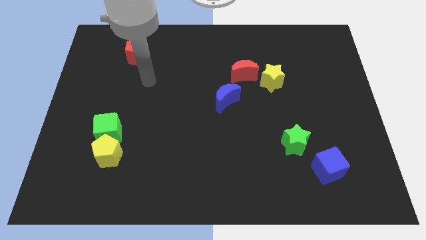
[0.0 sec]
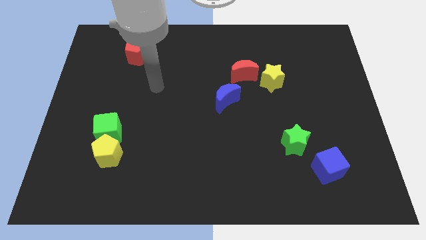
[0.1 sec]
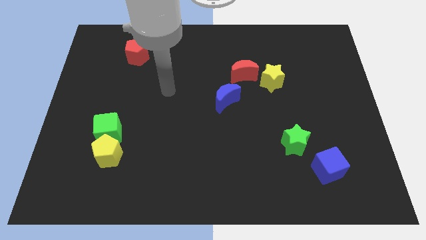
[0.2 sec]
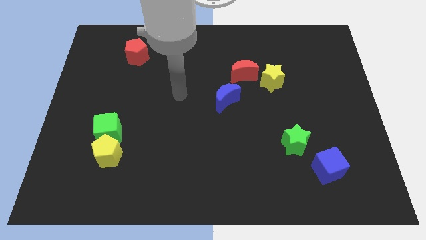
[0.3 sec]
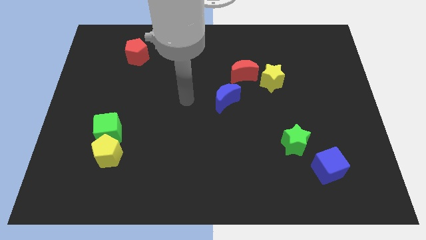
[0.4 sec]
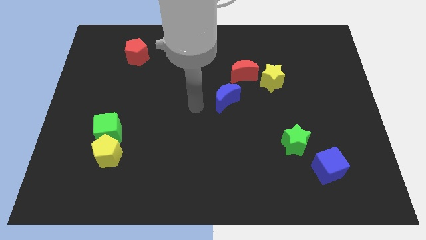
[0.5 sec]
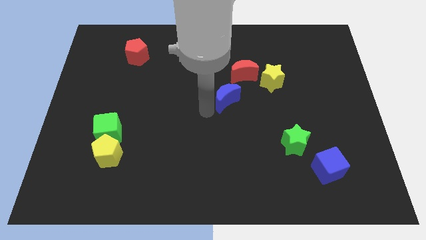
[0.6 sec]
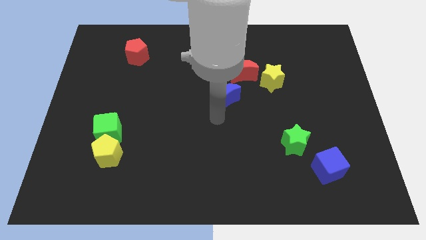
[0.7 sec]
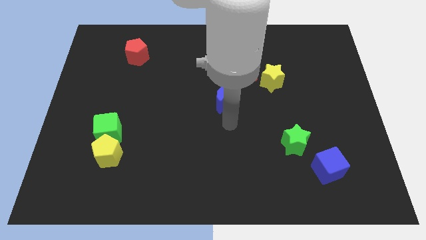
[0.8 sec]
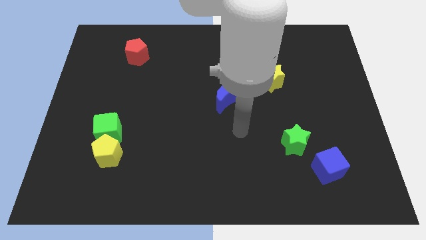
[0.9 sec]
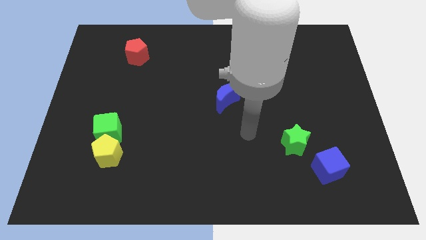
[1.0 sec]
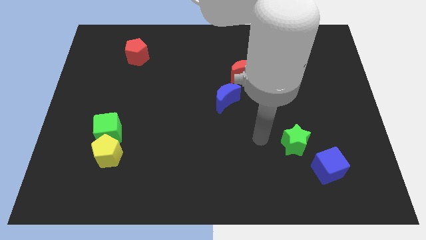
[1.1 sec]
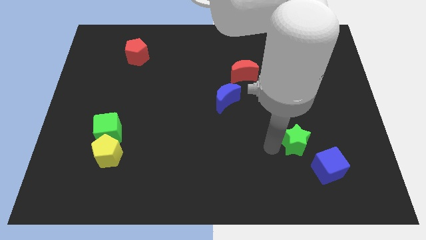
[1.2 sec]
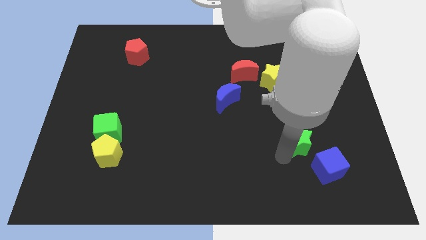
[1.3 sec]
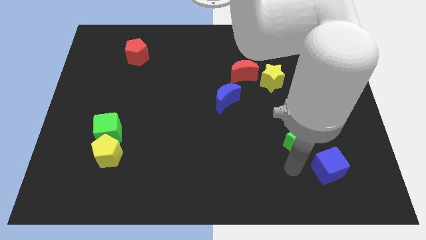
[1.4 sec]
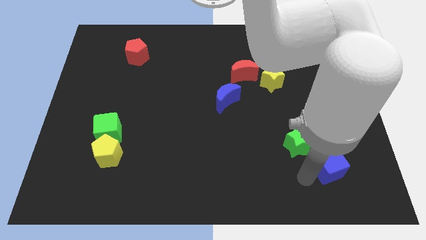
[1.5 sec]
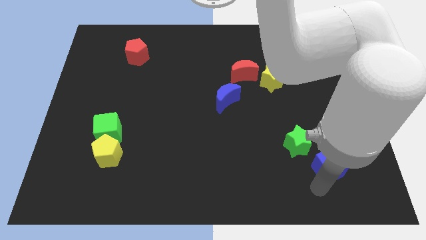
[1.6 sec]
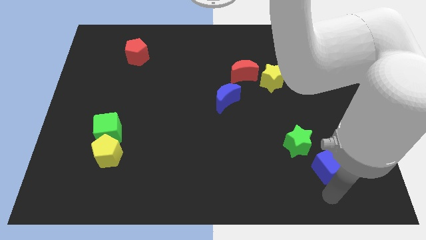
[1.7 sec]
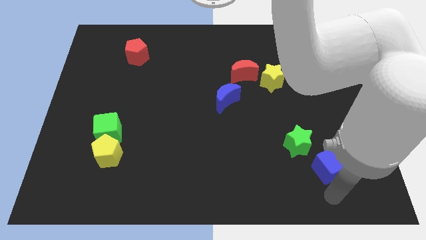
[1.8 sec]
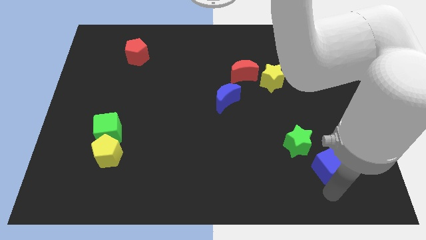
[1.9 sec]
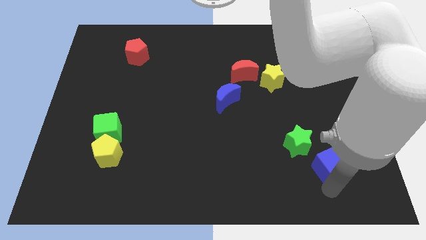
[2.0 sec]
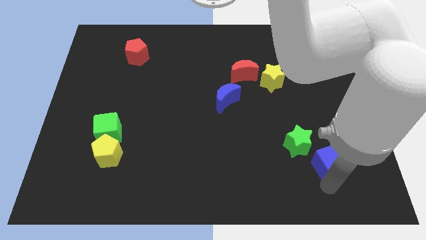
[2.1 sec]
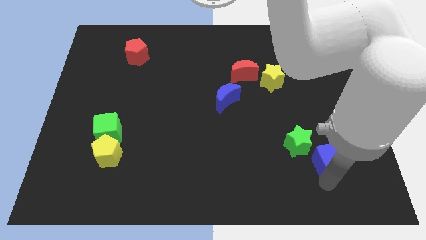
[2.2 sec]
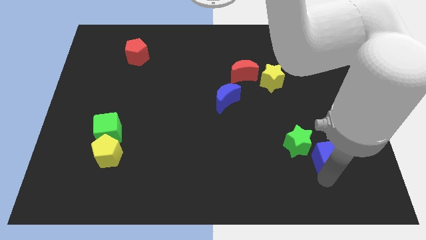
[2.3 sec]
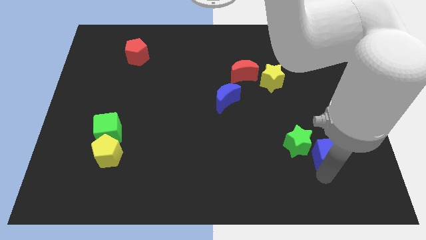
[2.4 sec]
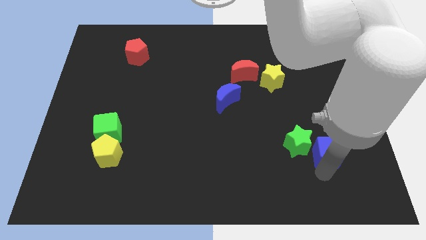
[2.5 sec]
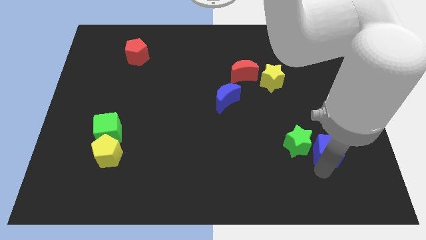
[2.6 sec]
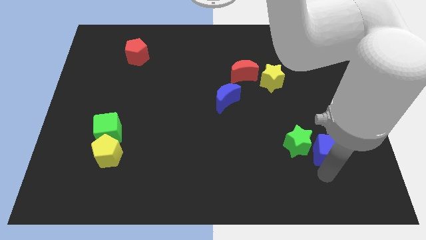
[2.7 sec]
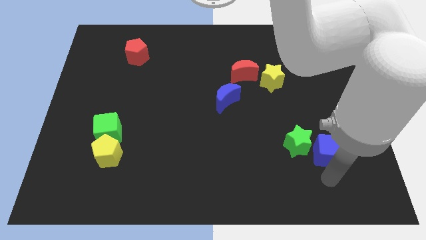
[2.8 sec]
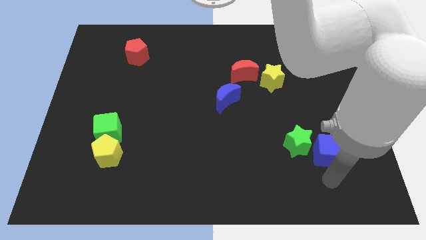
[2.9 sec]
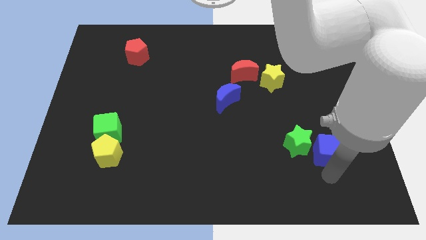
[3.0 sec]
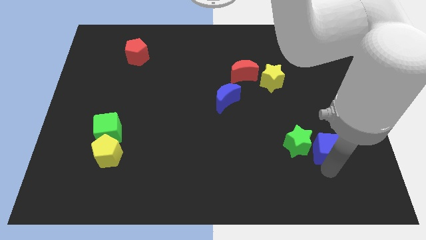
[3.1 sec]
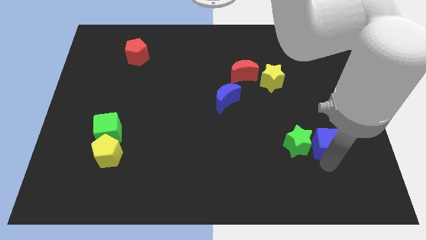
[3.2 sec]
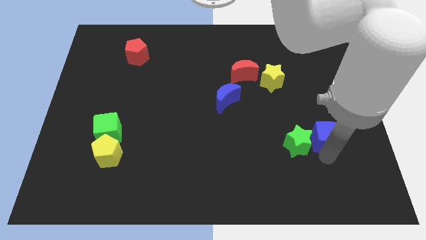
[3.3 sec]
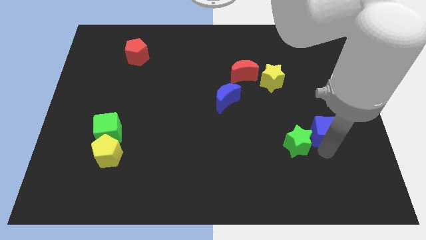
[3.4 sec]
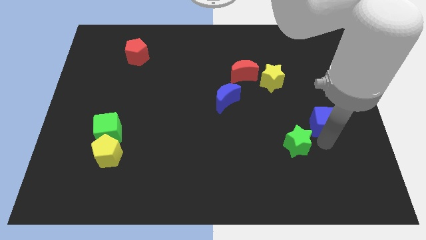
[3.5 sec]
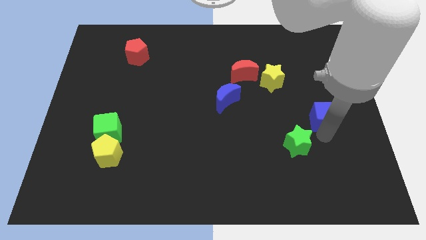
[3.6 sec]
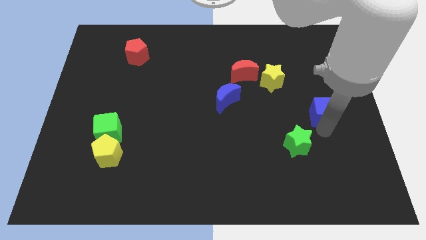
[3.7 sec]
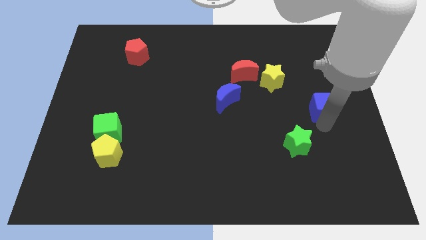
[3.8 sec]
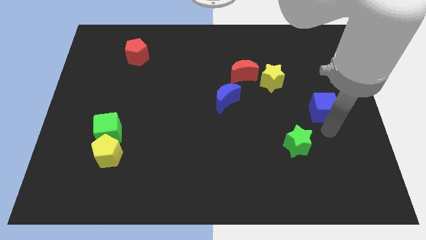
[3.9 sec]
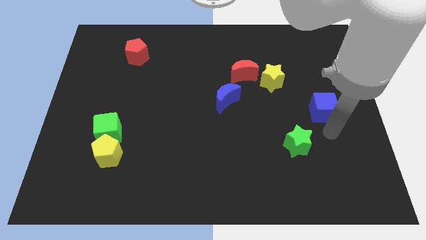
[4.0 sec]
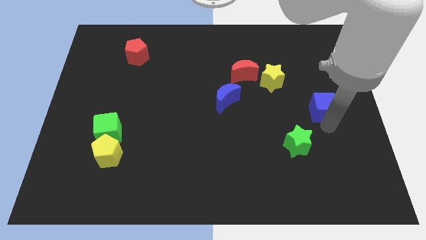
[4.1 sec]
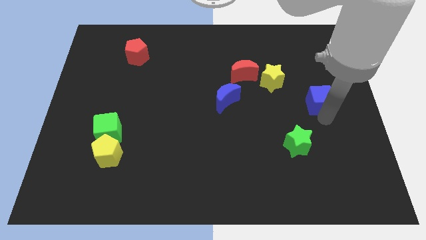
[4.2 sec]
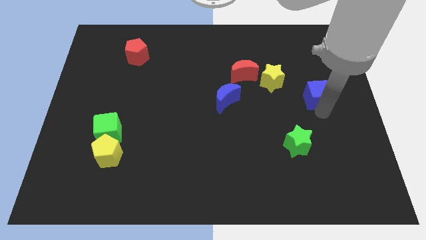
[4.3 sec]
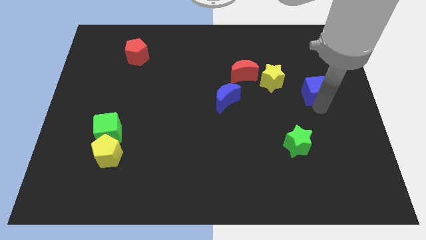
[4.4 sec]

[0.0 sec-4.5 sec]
slide the blue cube up

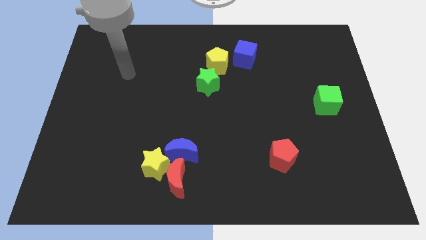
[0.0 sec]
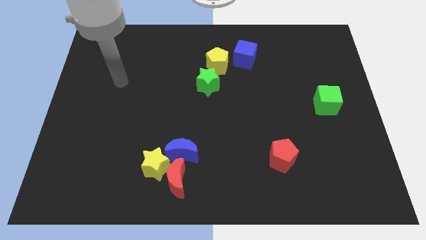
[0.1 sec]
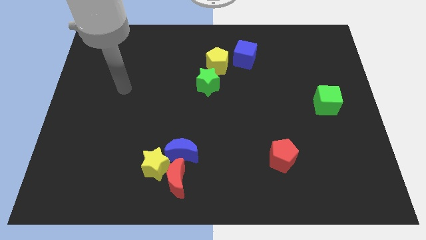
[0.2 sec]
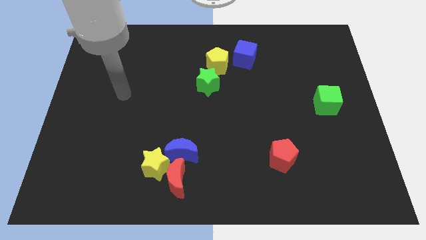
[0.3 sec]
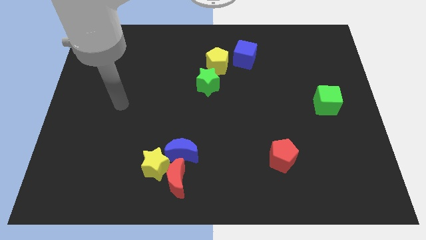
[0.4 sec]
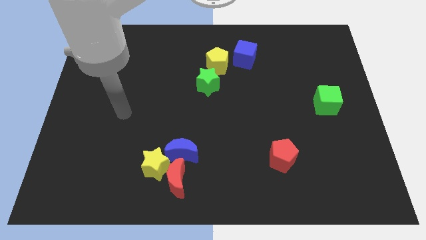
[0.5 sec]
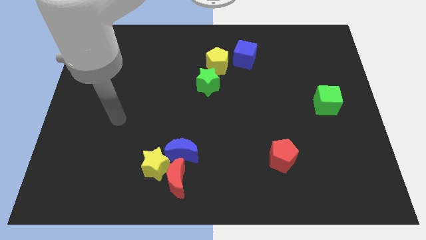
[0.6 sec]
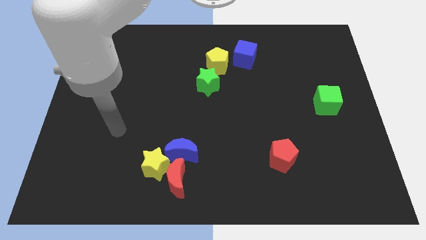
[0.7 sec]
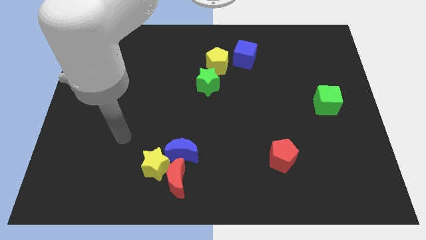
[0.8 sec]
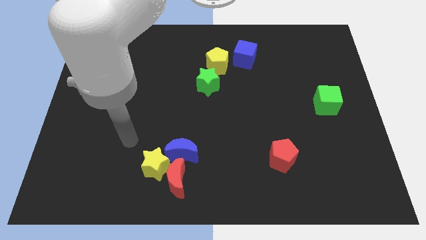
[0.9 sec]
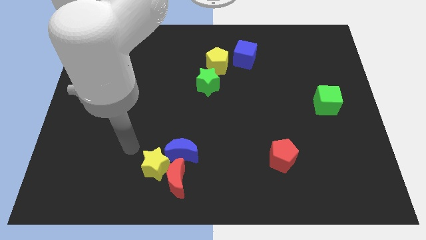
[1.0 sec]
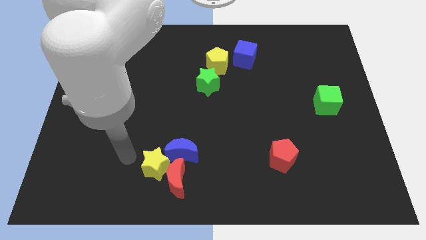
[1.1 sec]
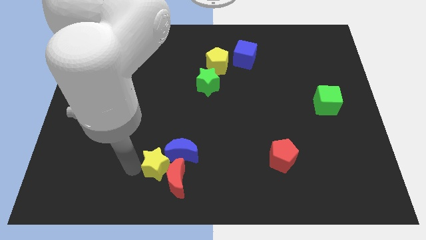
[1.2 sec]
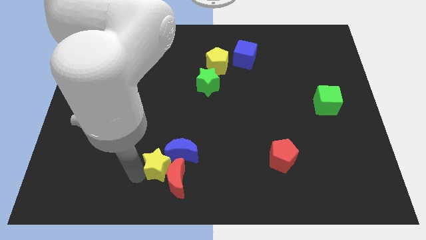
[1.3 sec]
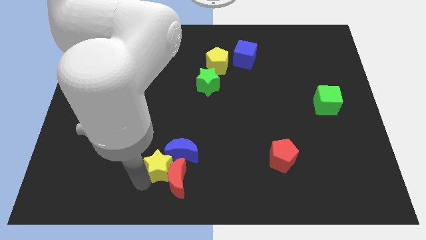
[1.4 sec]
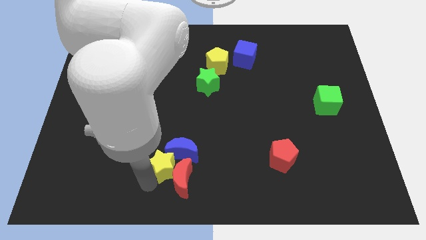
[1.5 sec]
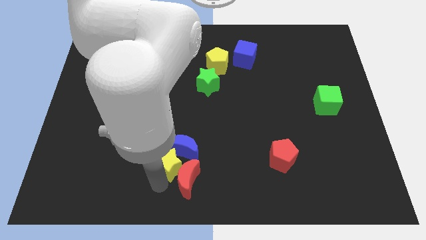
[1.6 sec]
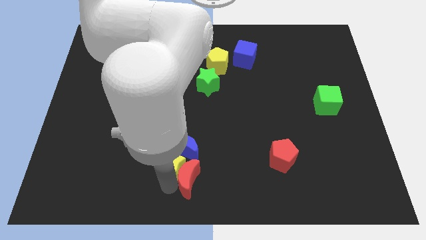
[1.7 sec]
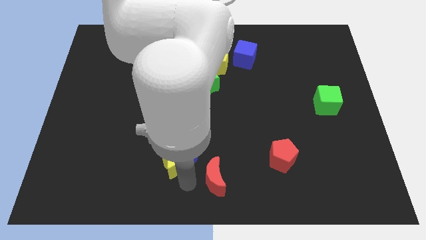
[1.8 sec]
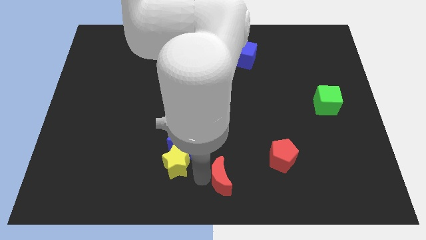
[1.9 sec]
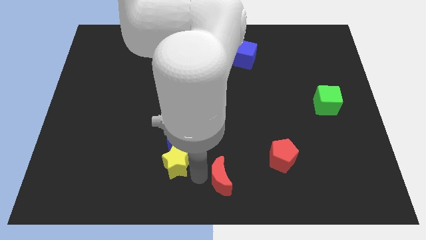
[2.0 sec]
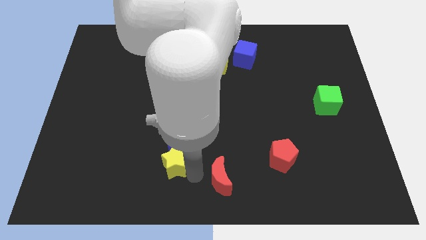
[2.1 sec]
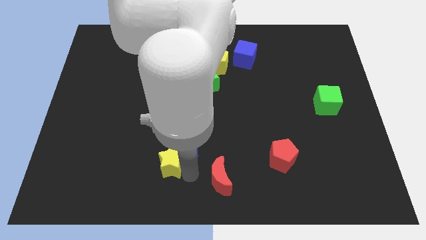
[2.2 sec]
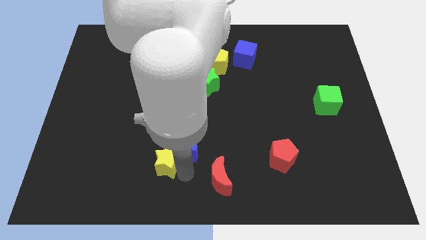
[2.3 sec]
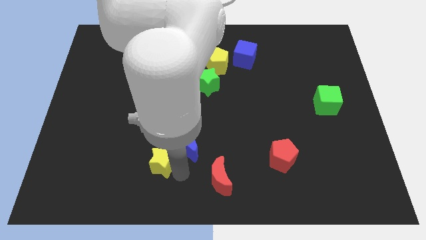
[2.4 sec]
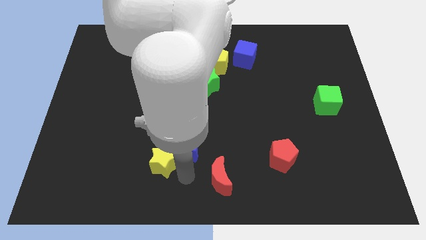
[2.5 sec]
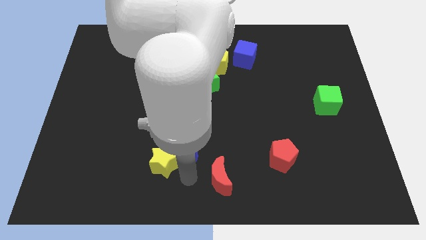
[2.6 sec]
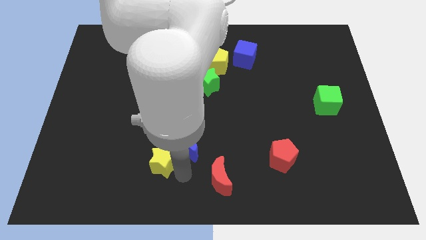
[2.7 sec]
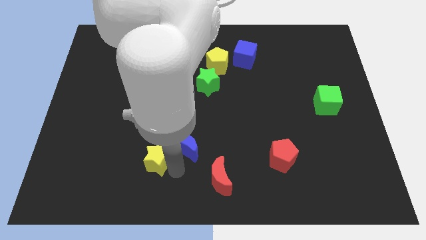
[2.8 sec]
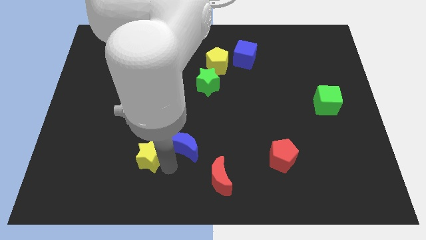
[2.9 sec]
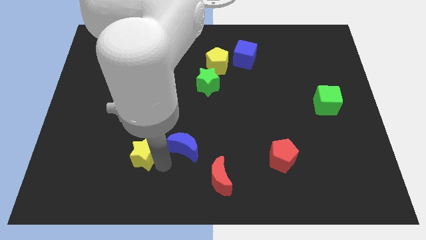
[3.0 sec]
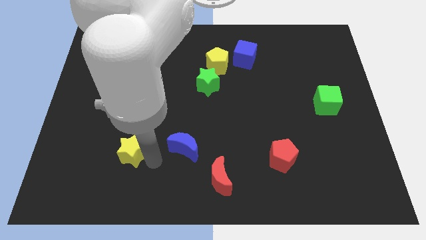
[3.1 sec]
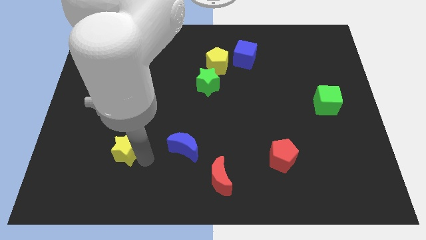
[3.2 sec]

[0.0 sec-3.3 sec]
slightly push the yellow star up and left diagonally
